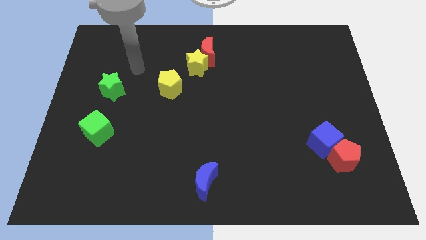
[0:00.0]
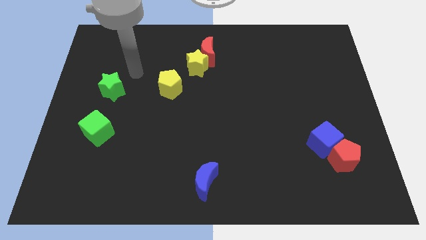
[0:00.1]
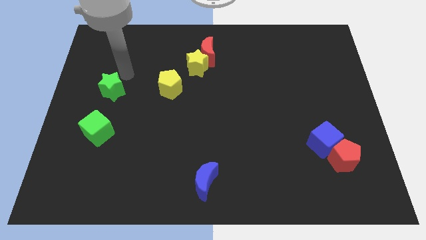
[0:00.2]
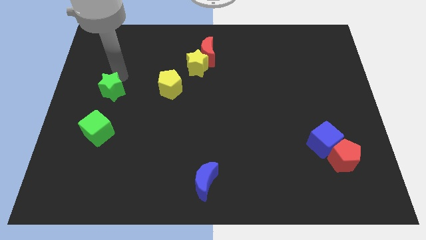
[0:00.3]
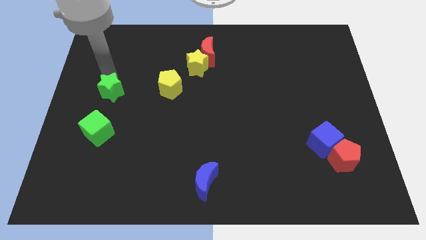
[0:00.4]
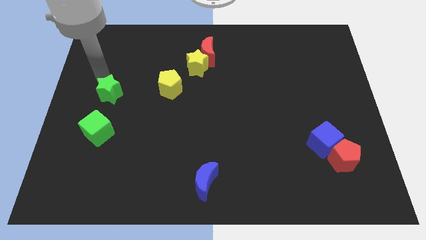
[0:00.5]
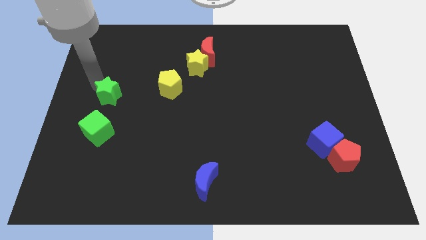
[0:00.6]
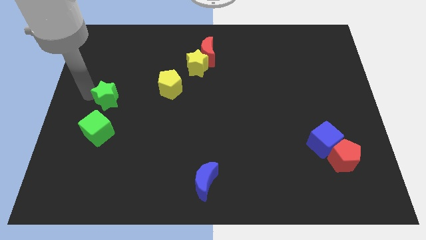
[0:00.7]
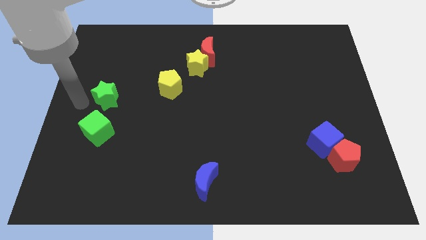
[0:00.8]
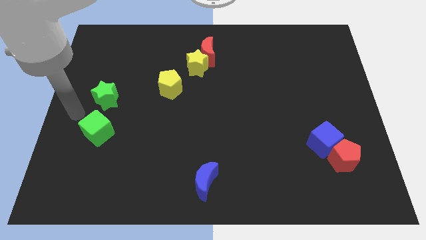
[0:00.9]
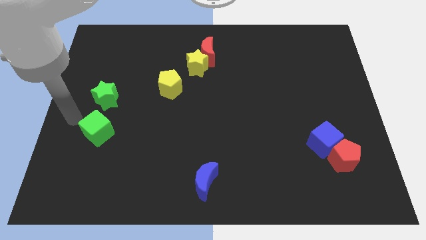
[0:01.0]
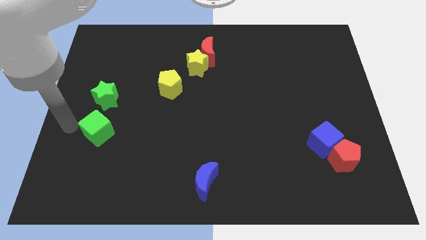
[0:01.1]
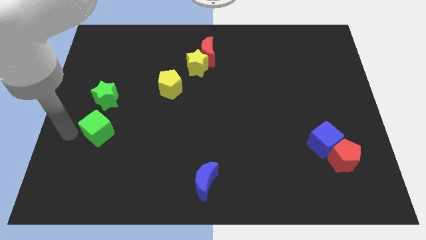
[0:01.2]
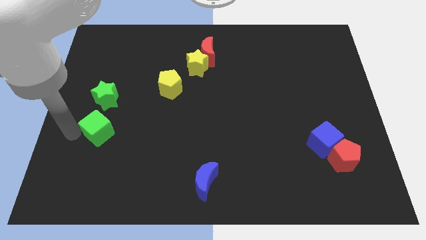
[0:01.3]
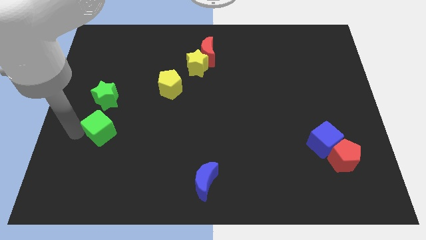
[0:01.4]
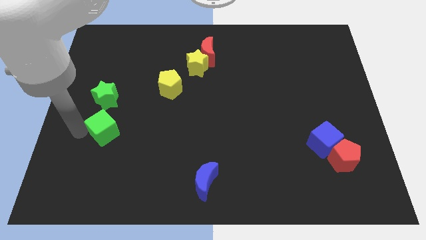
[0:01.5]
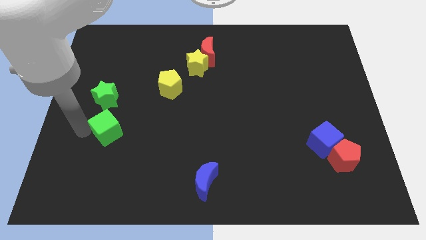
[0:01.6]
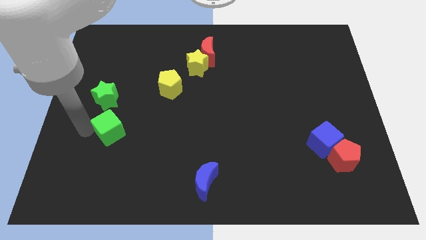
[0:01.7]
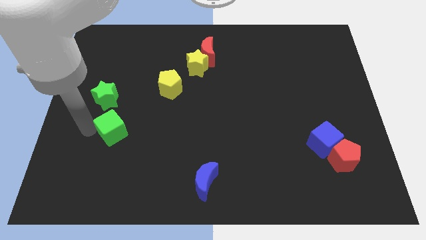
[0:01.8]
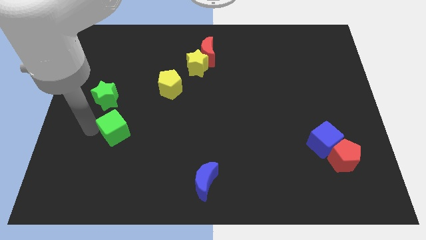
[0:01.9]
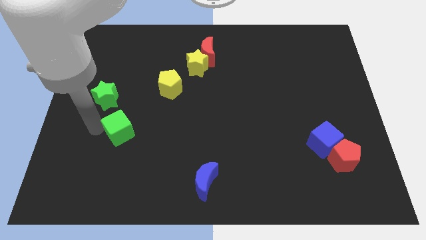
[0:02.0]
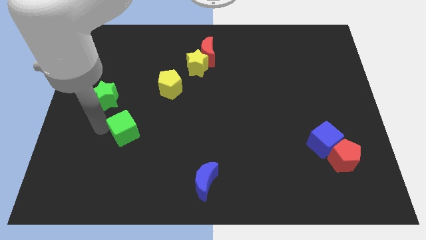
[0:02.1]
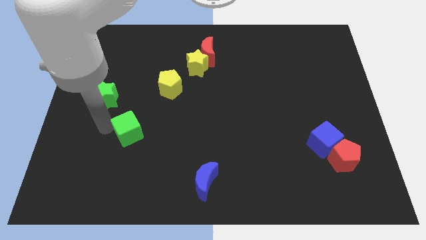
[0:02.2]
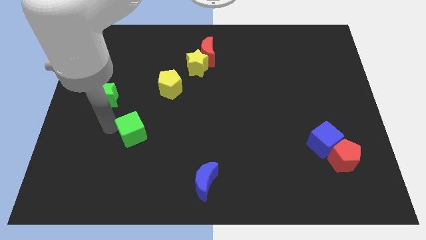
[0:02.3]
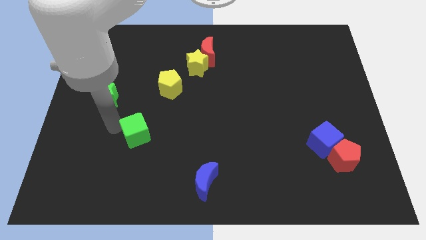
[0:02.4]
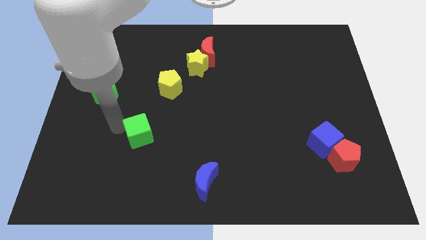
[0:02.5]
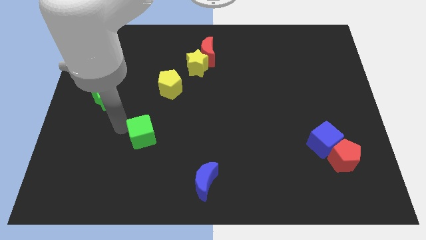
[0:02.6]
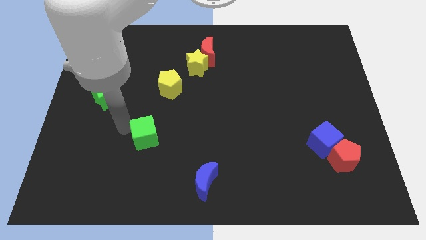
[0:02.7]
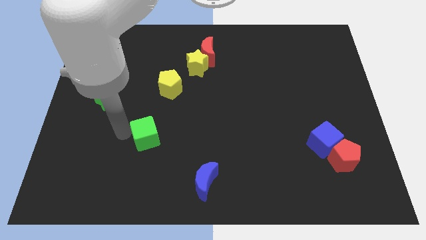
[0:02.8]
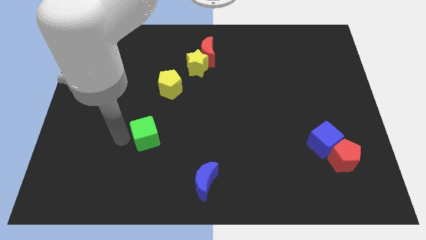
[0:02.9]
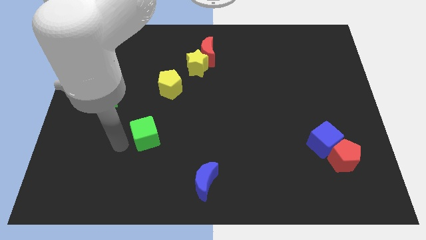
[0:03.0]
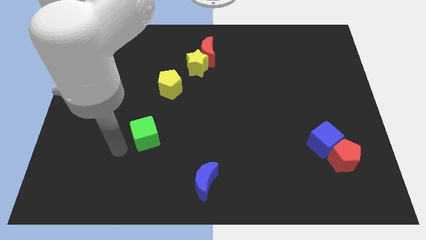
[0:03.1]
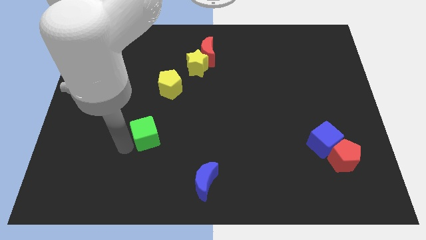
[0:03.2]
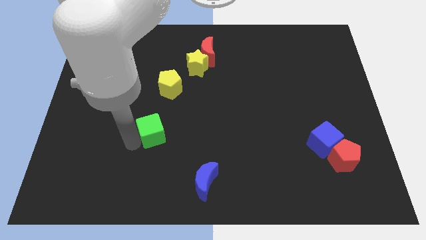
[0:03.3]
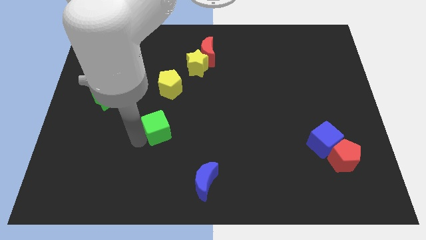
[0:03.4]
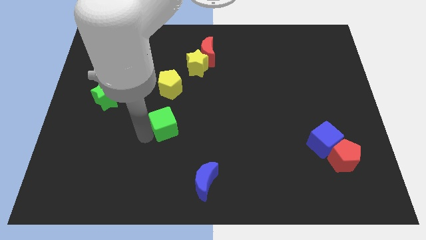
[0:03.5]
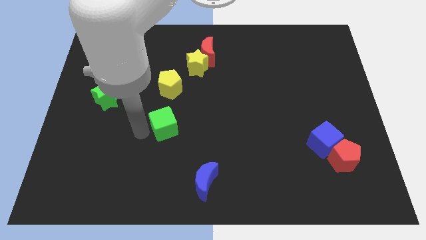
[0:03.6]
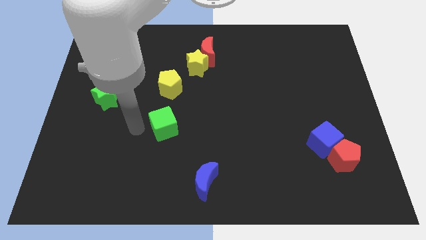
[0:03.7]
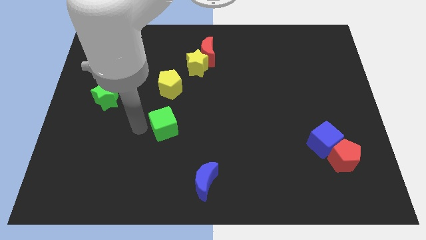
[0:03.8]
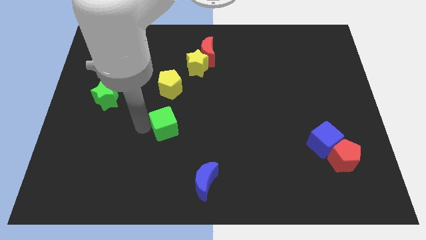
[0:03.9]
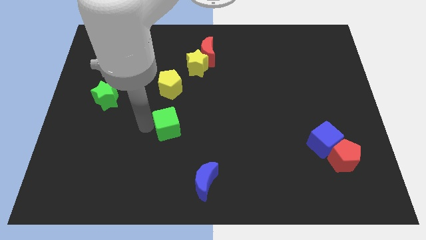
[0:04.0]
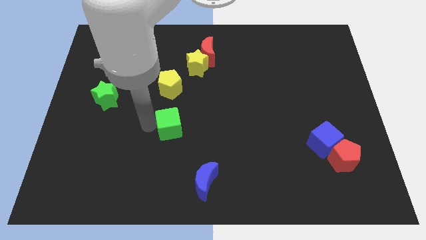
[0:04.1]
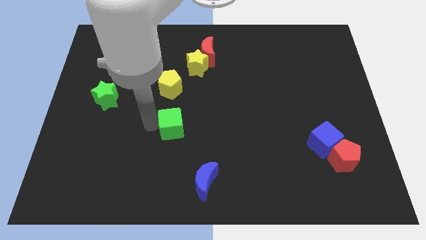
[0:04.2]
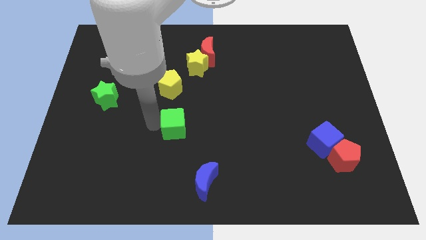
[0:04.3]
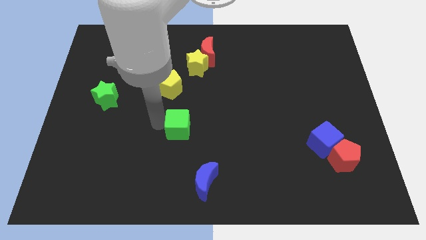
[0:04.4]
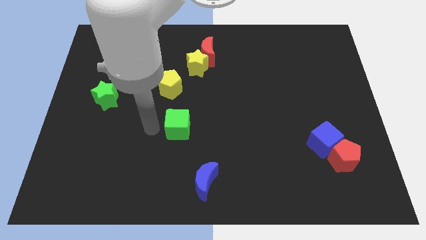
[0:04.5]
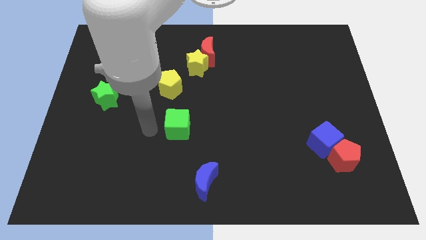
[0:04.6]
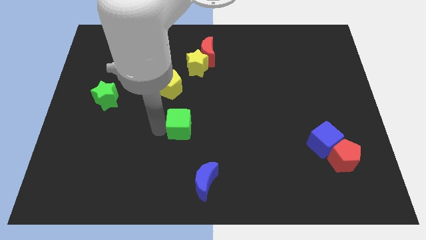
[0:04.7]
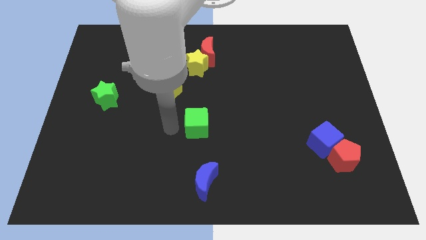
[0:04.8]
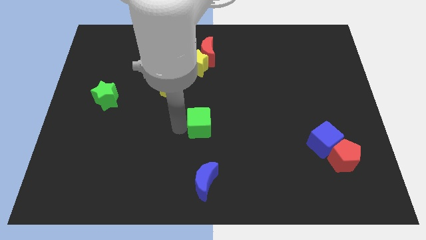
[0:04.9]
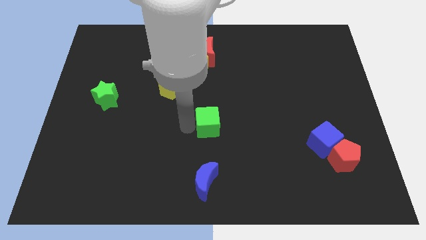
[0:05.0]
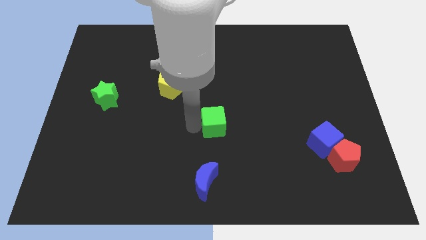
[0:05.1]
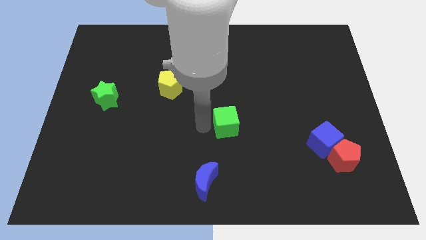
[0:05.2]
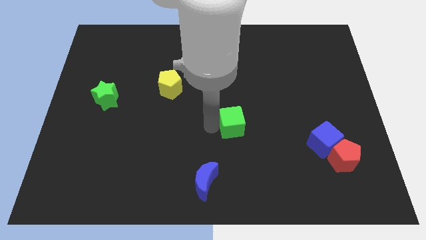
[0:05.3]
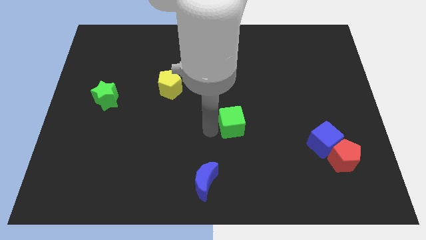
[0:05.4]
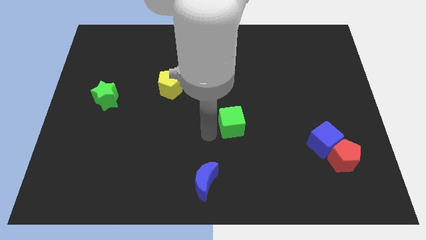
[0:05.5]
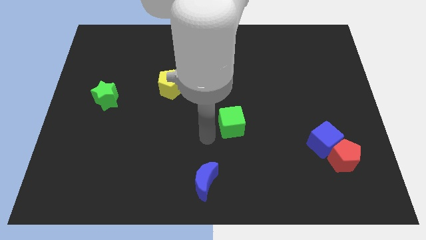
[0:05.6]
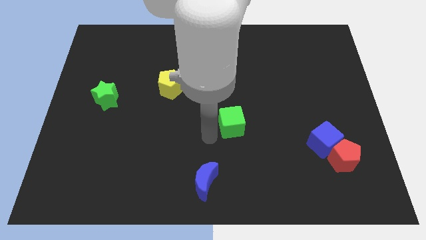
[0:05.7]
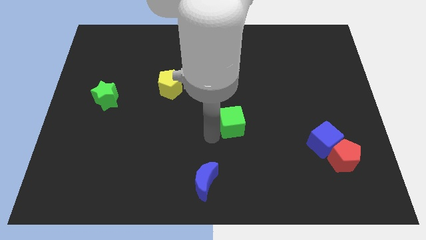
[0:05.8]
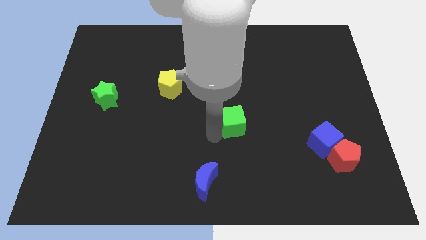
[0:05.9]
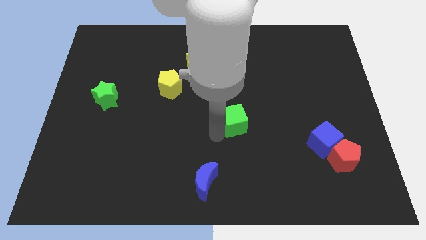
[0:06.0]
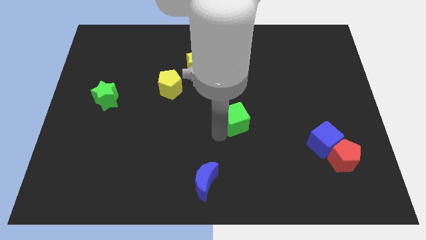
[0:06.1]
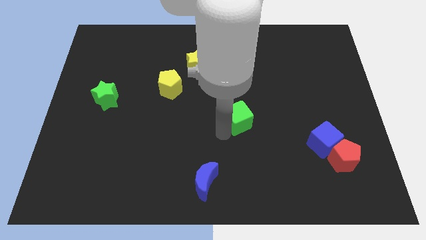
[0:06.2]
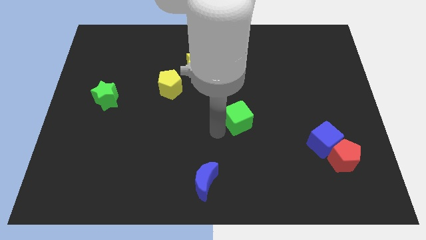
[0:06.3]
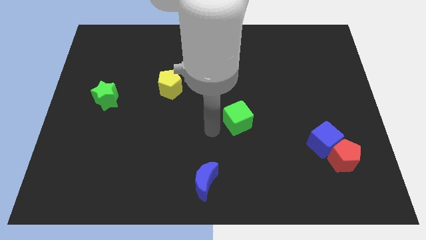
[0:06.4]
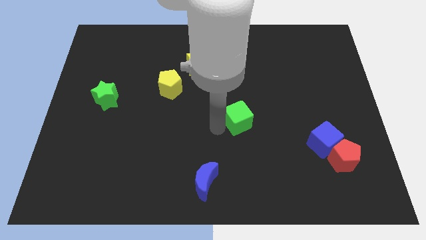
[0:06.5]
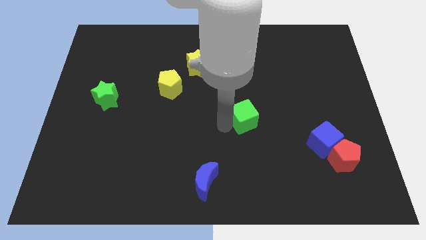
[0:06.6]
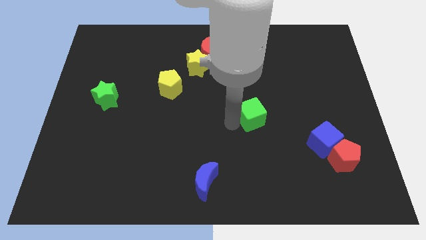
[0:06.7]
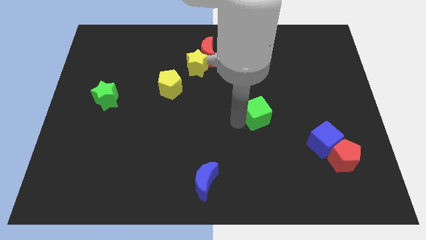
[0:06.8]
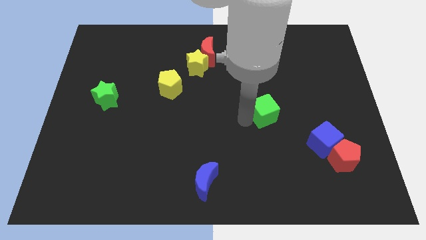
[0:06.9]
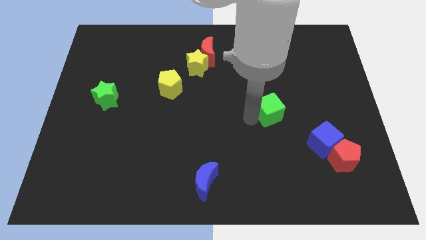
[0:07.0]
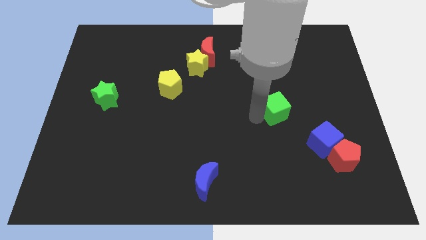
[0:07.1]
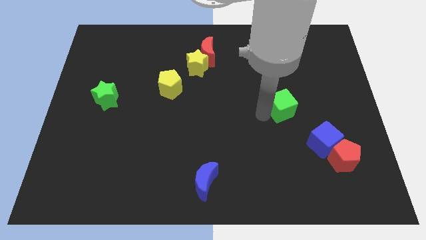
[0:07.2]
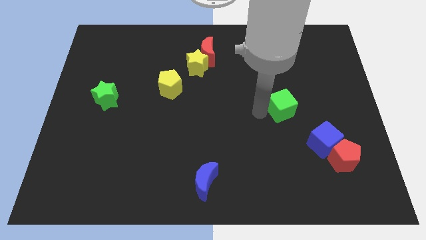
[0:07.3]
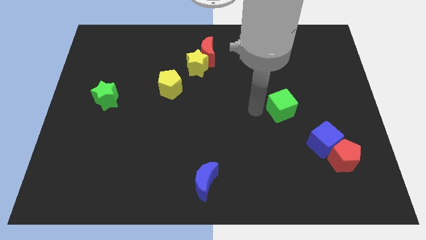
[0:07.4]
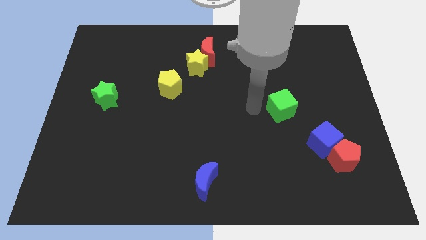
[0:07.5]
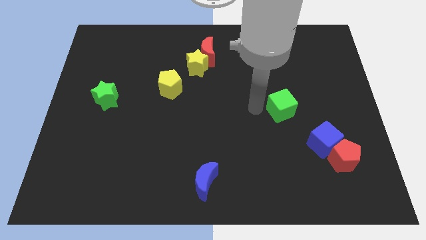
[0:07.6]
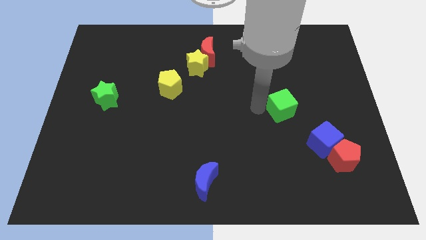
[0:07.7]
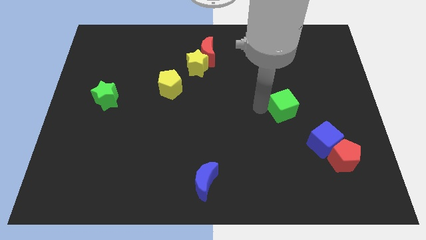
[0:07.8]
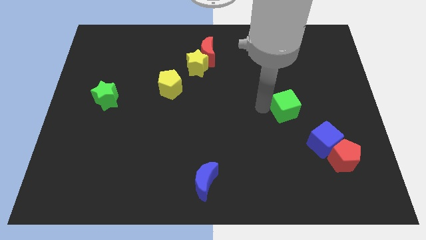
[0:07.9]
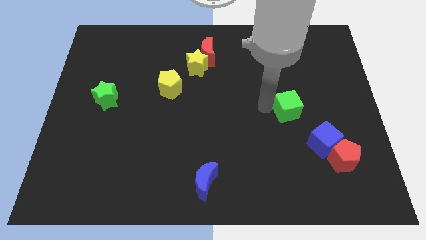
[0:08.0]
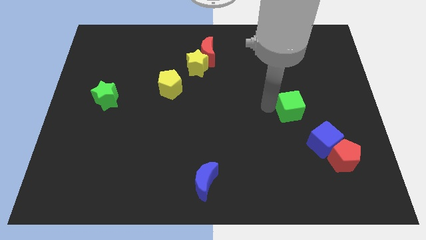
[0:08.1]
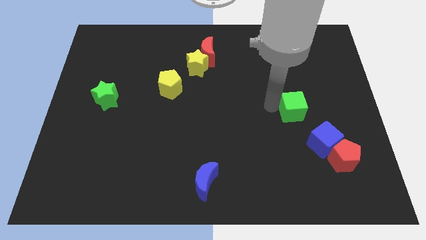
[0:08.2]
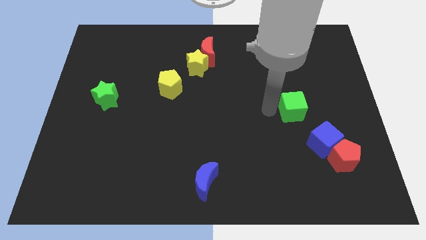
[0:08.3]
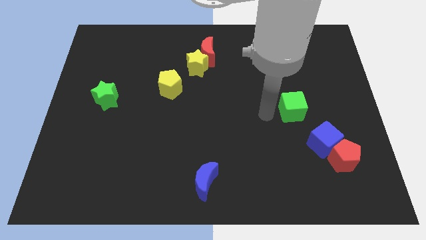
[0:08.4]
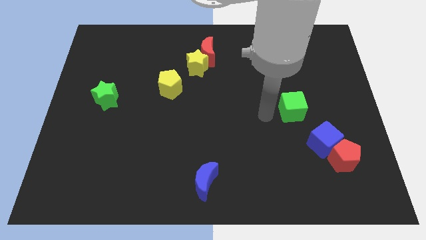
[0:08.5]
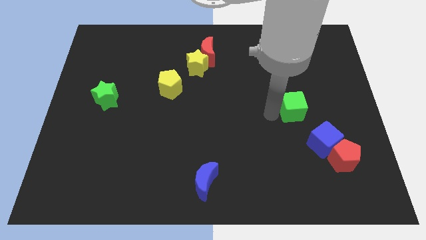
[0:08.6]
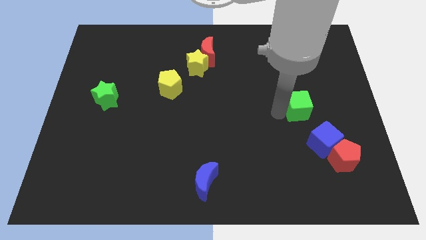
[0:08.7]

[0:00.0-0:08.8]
move the green cube to the top of the blue cube
